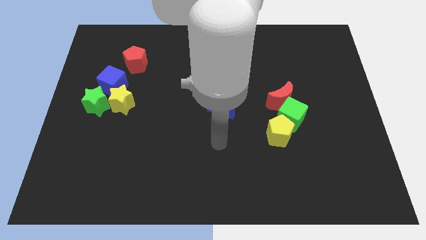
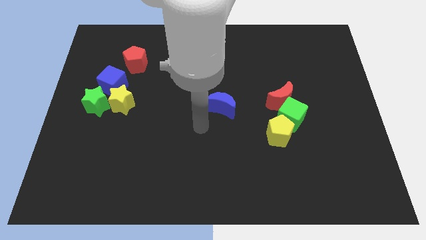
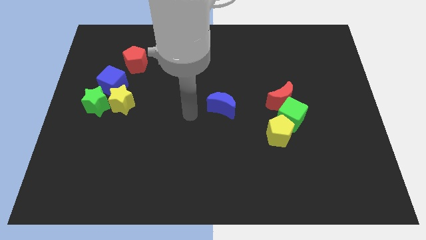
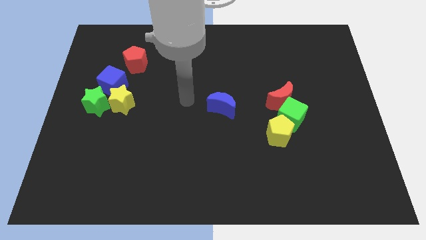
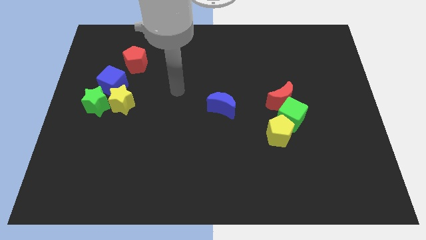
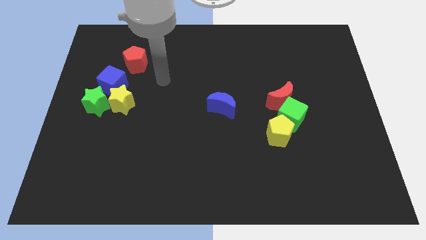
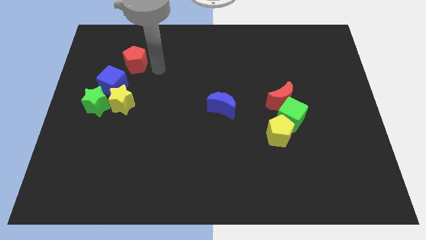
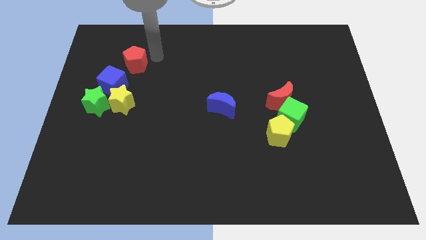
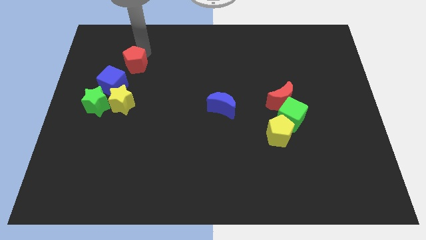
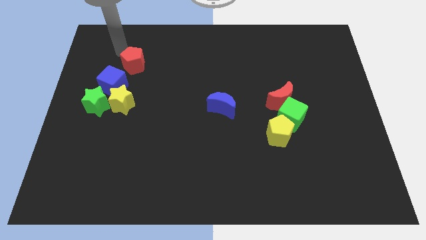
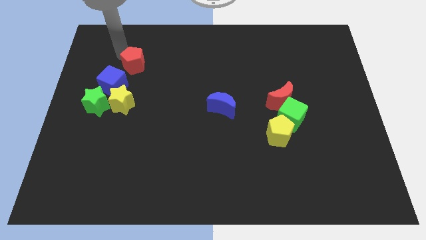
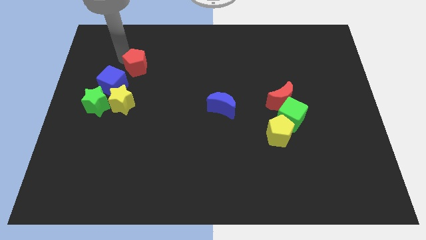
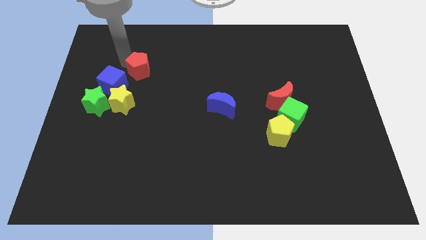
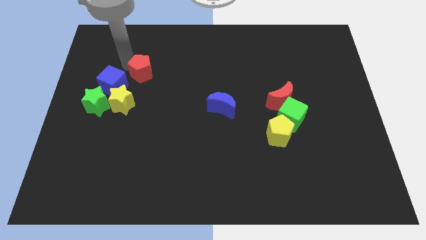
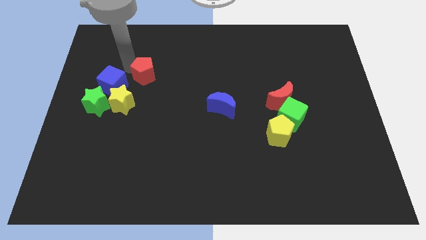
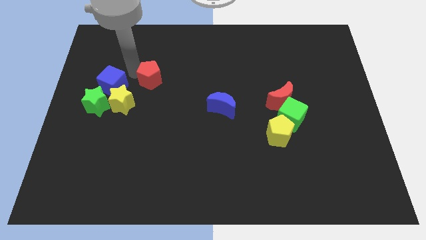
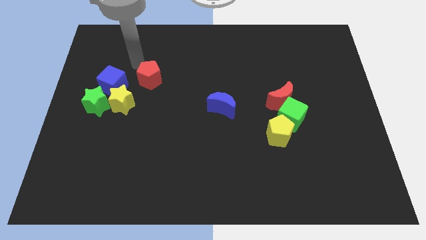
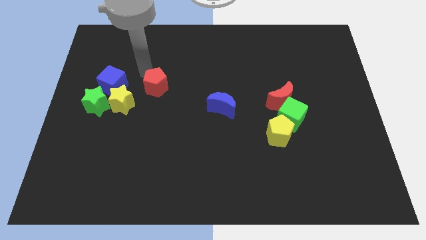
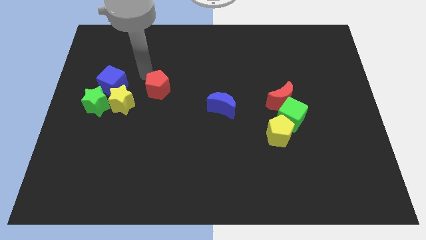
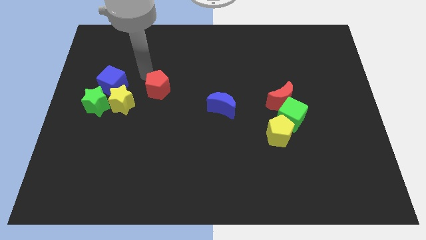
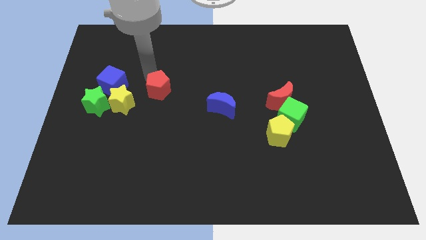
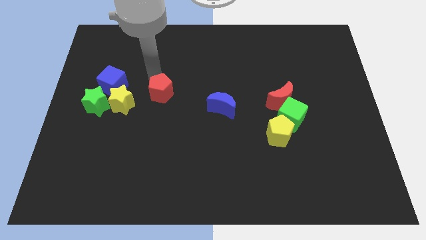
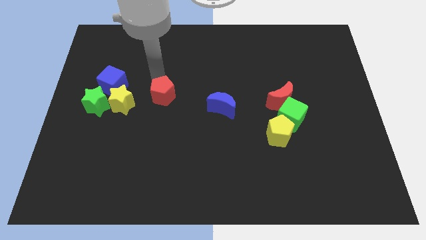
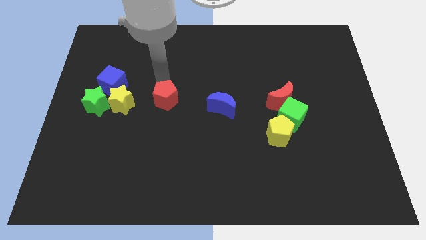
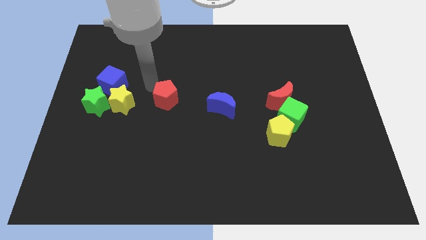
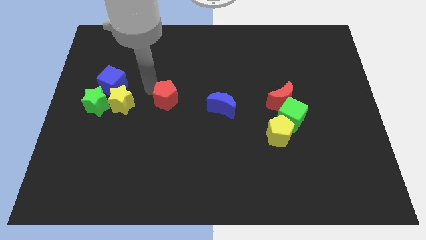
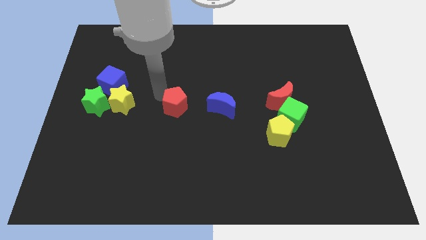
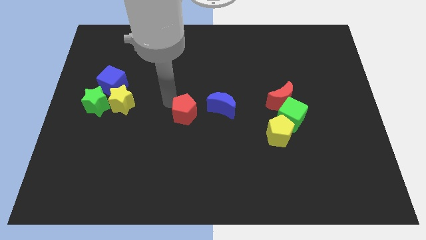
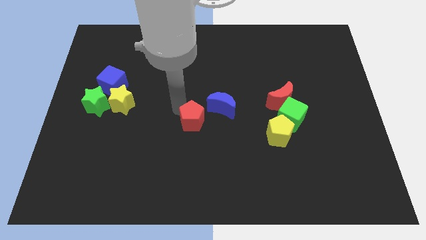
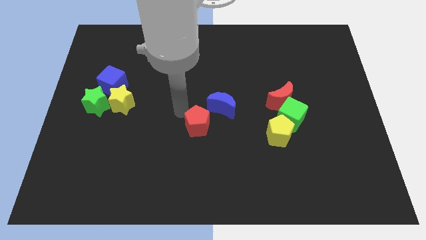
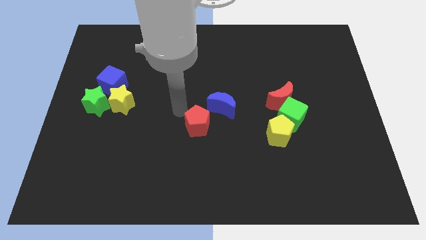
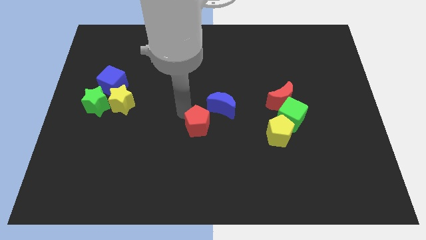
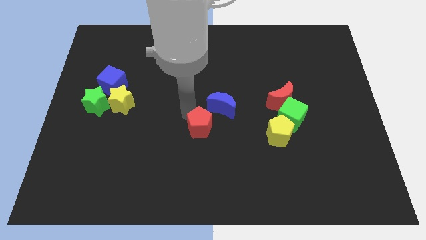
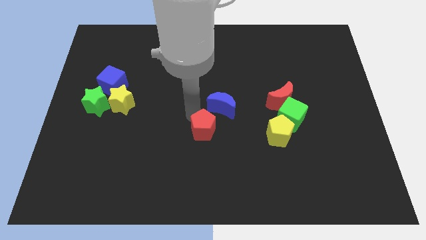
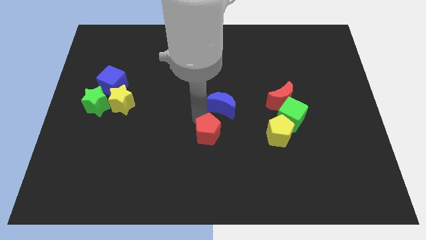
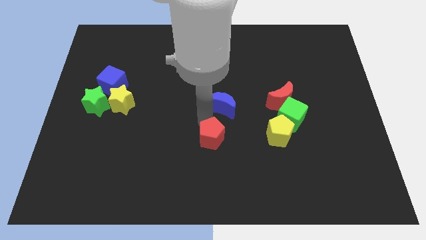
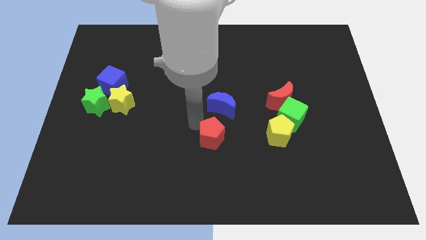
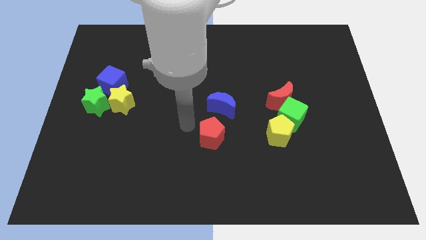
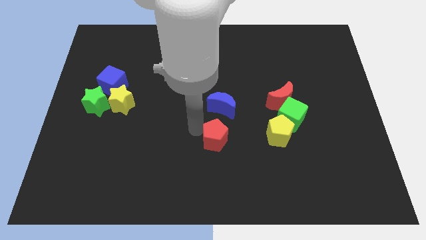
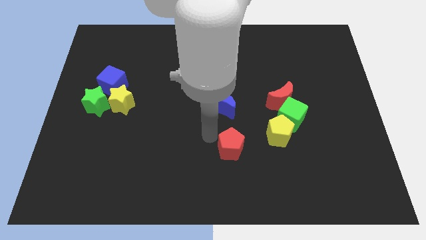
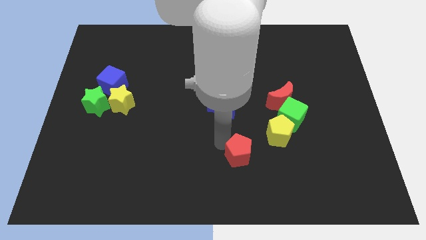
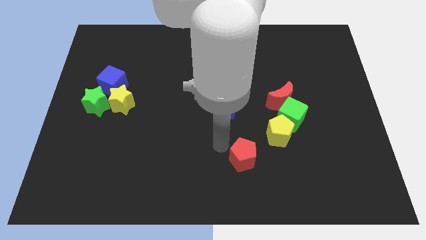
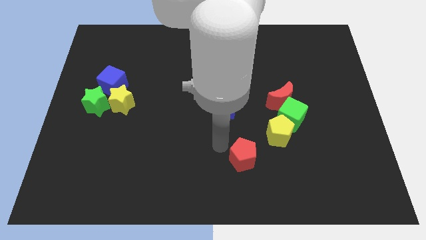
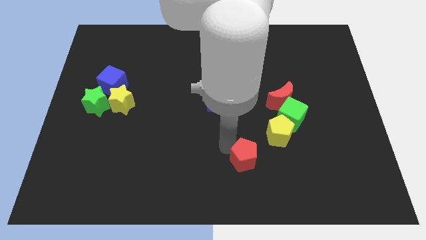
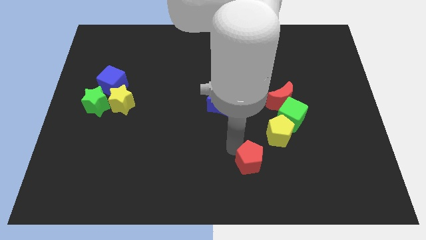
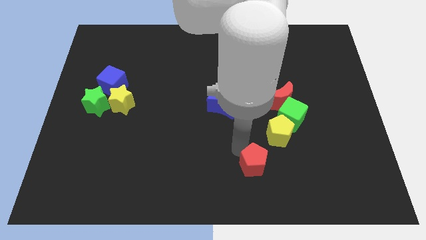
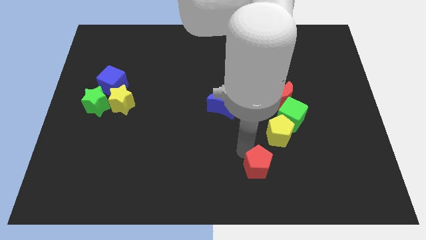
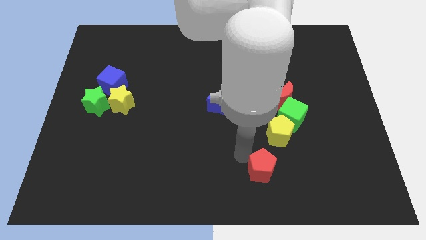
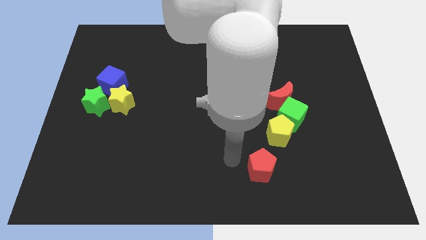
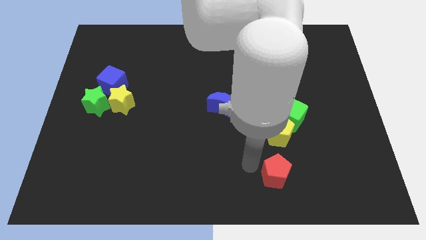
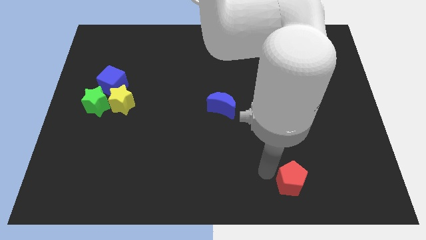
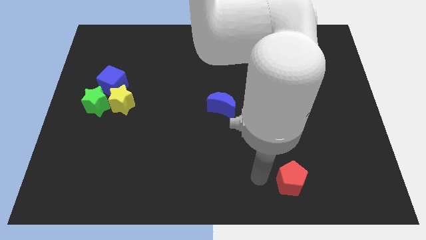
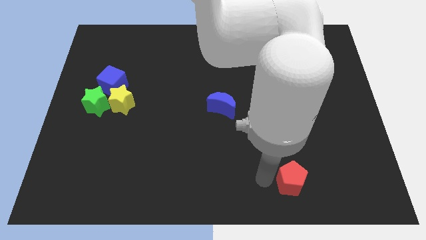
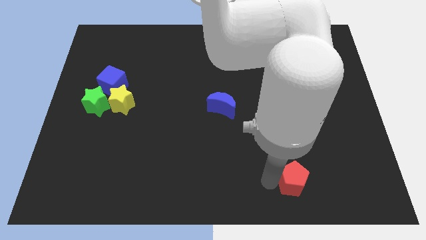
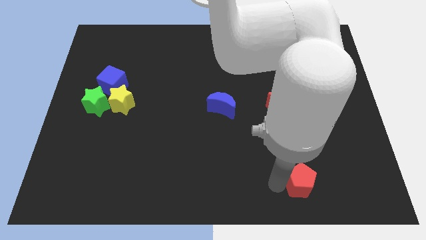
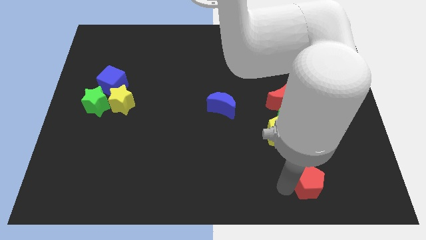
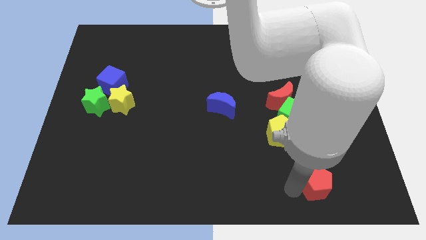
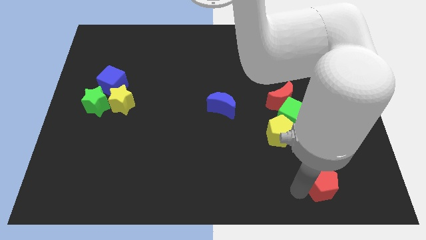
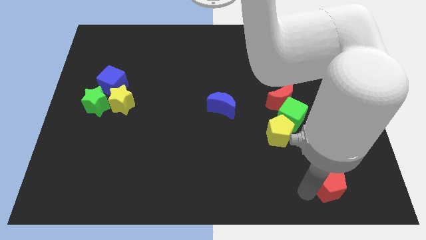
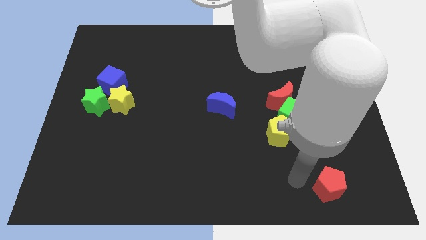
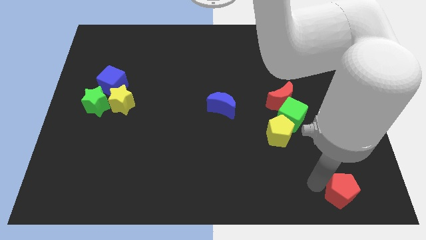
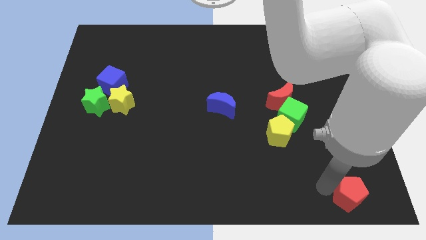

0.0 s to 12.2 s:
put the red pentagon to the lower right corner
